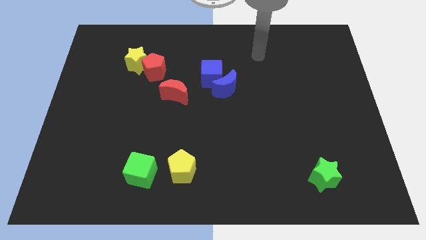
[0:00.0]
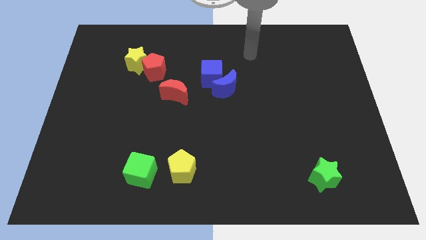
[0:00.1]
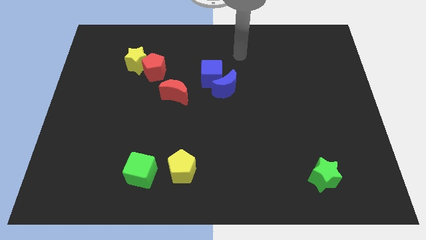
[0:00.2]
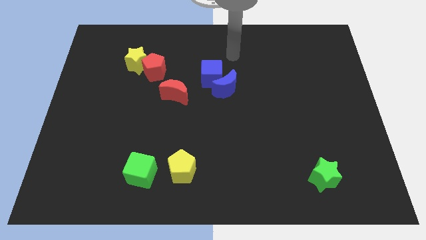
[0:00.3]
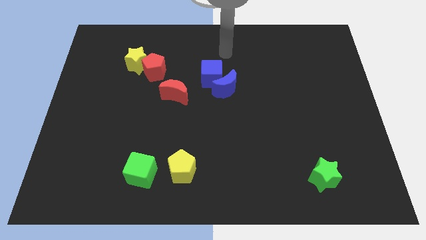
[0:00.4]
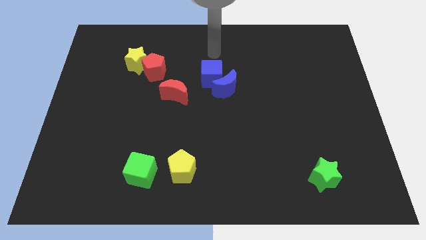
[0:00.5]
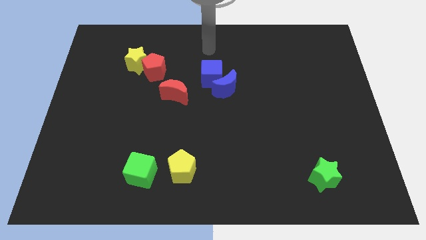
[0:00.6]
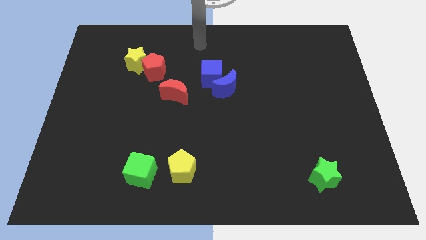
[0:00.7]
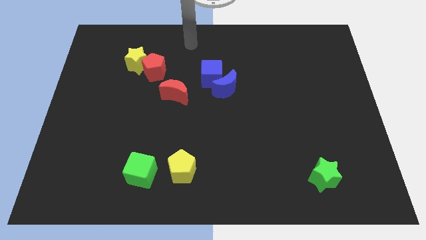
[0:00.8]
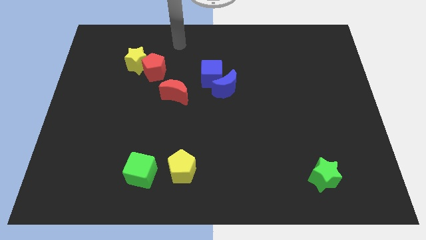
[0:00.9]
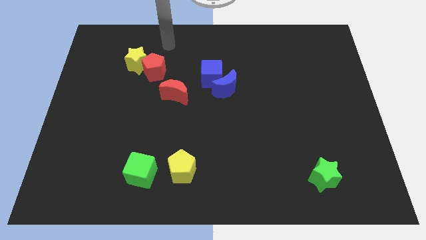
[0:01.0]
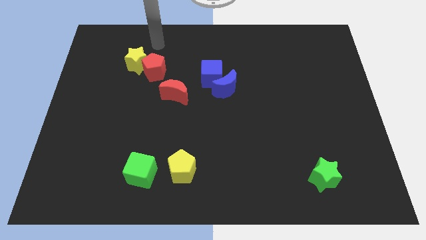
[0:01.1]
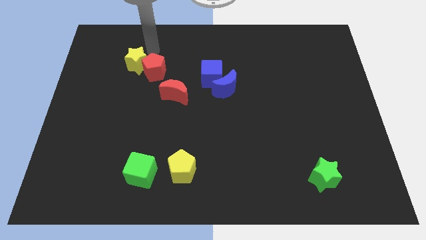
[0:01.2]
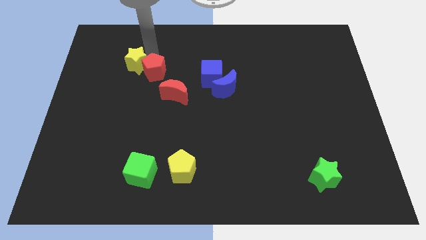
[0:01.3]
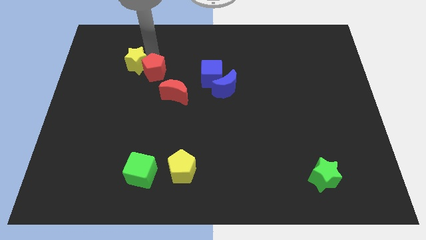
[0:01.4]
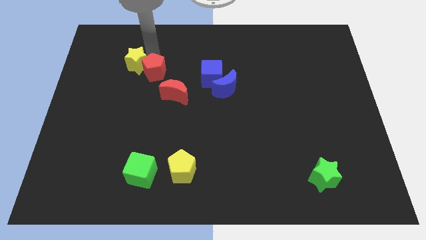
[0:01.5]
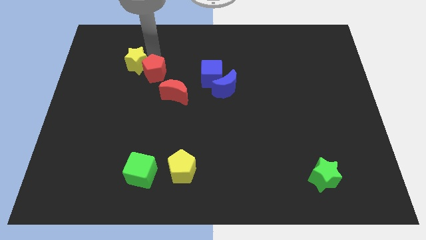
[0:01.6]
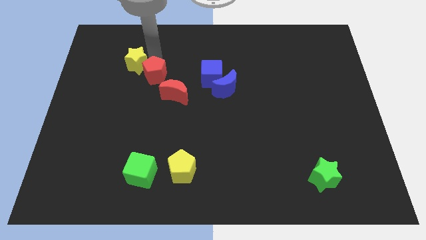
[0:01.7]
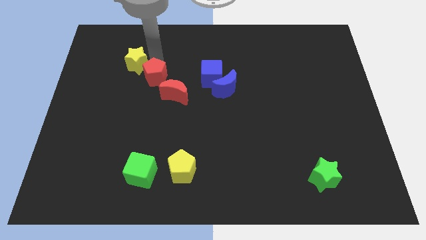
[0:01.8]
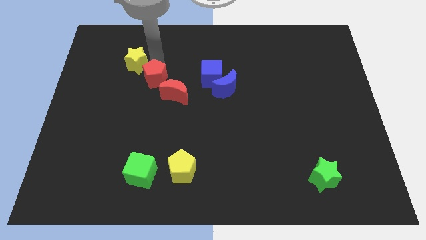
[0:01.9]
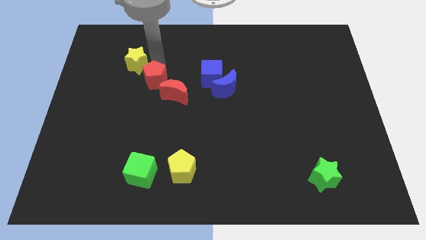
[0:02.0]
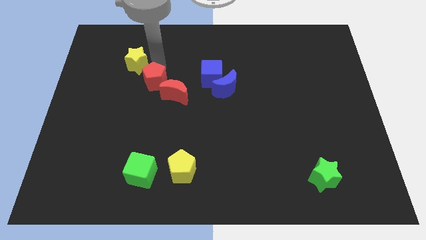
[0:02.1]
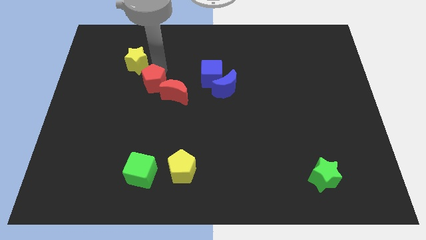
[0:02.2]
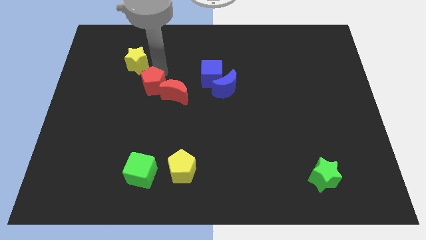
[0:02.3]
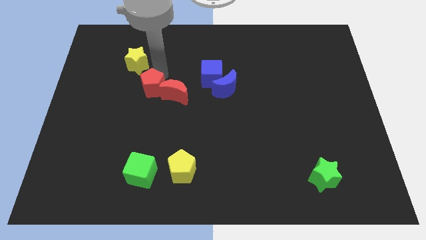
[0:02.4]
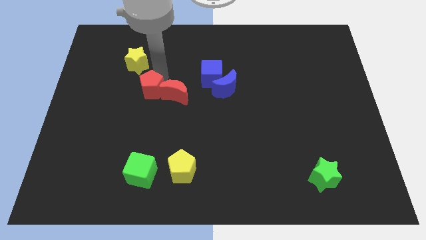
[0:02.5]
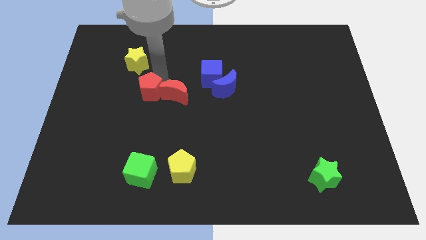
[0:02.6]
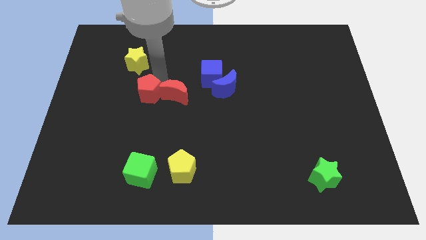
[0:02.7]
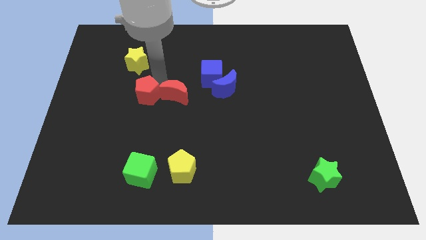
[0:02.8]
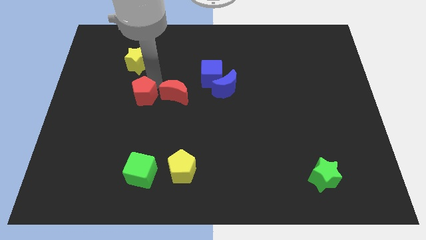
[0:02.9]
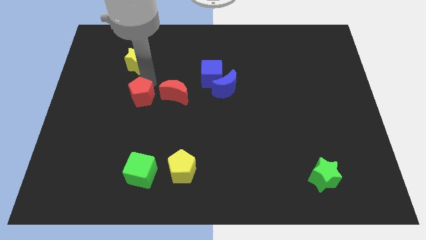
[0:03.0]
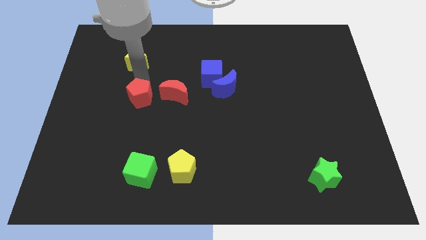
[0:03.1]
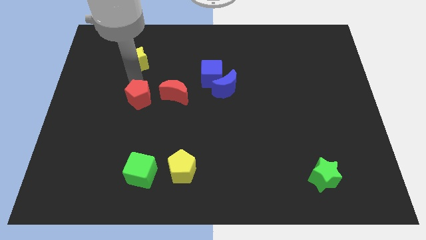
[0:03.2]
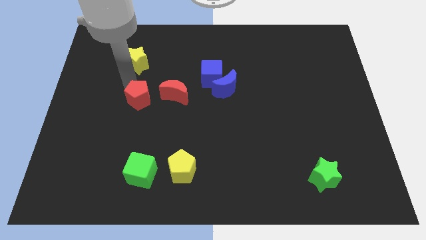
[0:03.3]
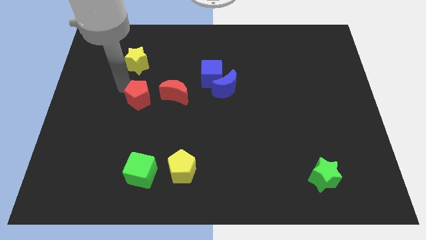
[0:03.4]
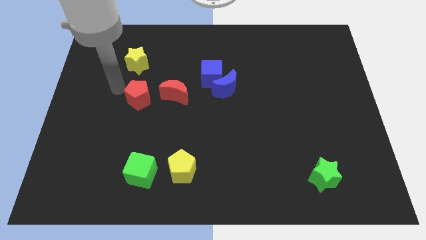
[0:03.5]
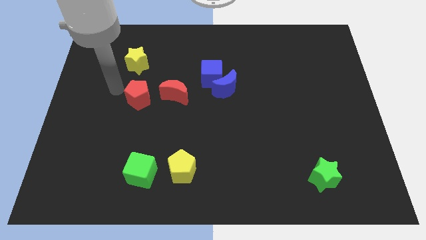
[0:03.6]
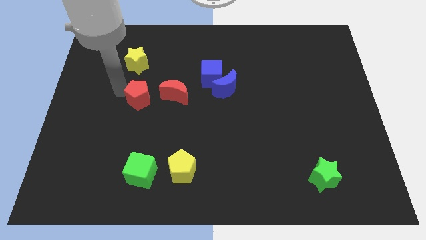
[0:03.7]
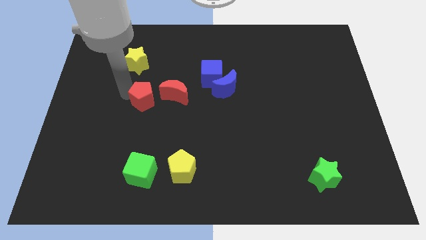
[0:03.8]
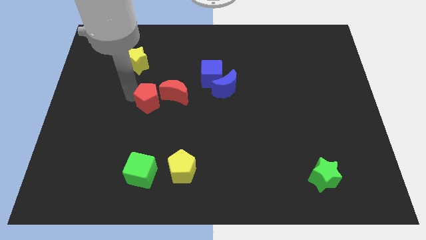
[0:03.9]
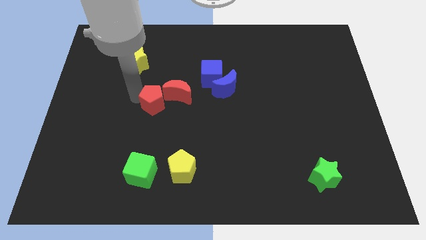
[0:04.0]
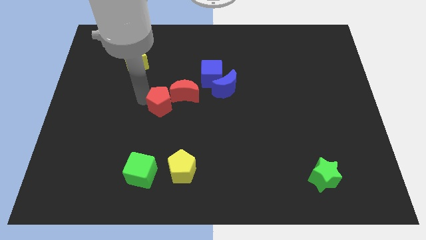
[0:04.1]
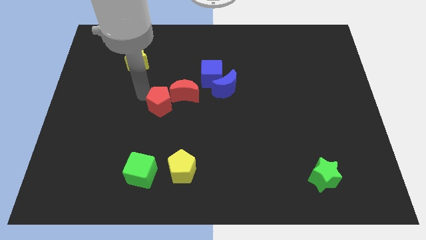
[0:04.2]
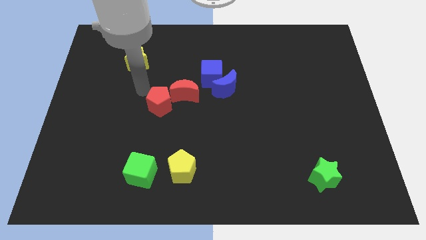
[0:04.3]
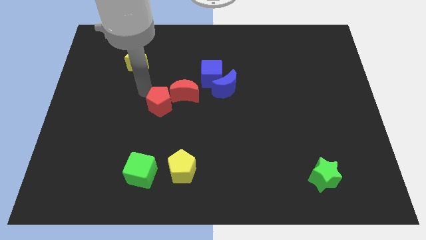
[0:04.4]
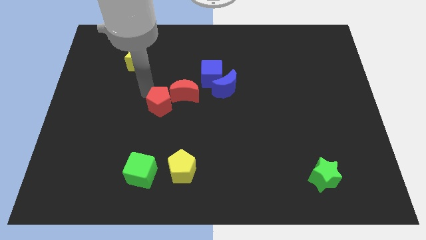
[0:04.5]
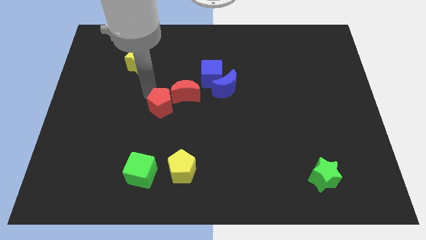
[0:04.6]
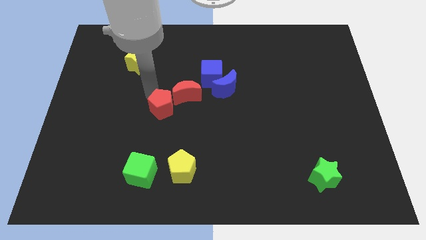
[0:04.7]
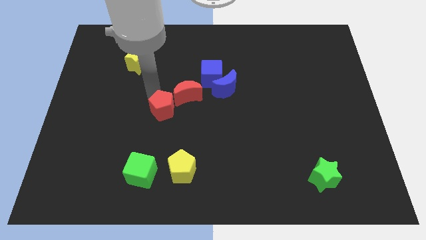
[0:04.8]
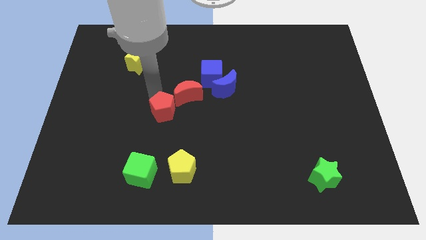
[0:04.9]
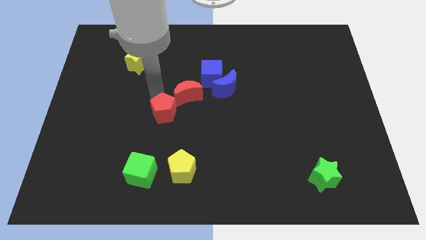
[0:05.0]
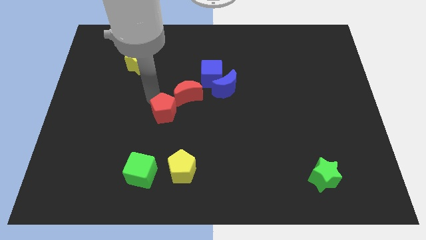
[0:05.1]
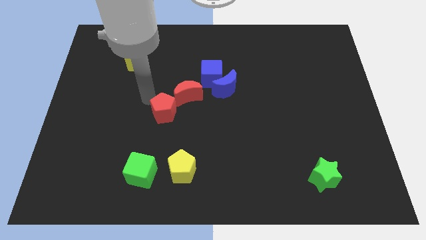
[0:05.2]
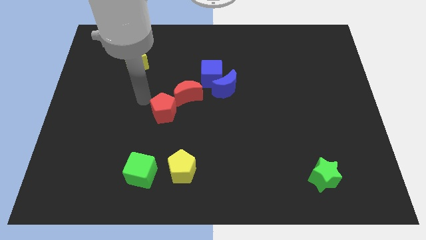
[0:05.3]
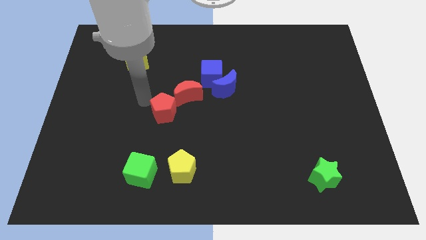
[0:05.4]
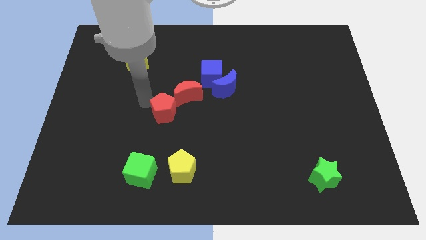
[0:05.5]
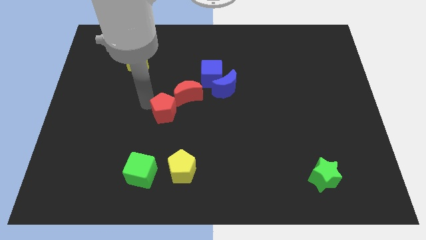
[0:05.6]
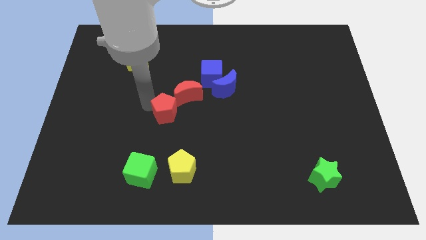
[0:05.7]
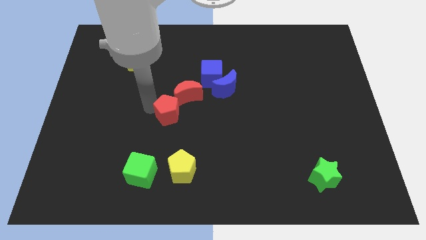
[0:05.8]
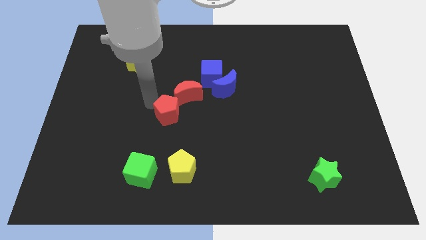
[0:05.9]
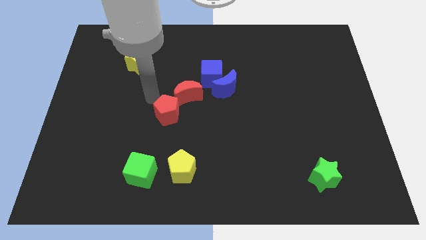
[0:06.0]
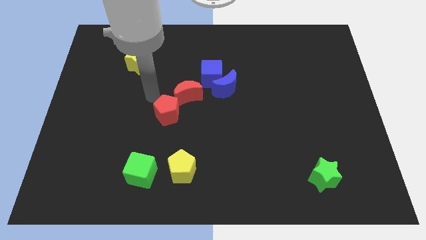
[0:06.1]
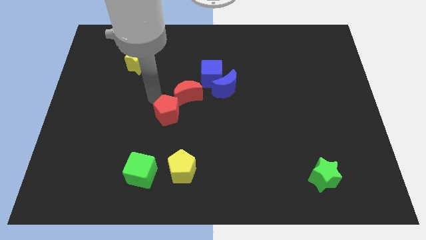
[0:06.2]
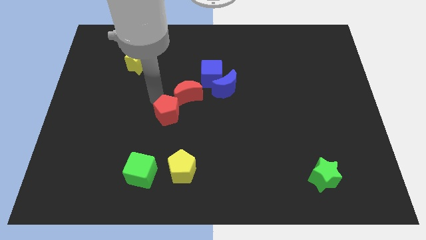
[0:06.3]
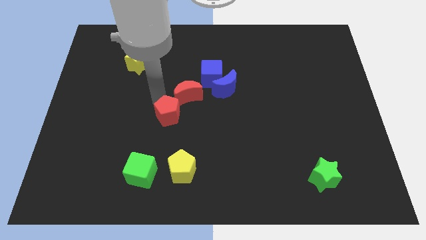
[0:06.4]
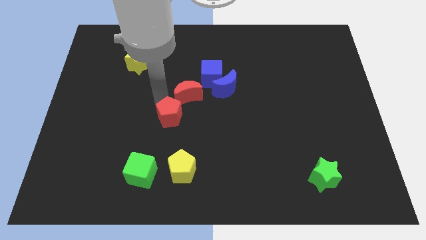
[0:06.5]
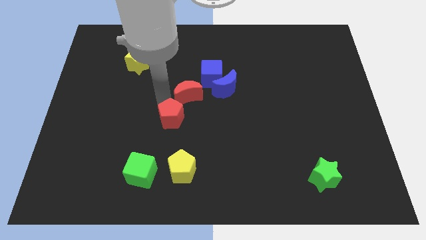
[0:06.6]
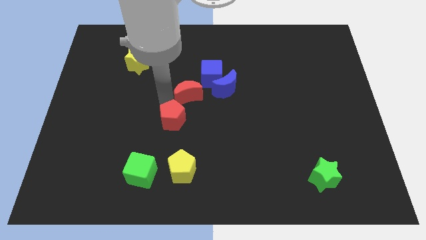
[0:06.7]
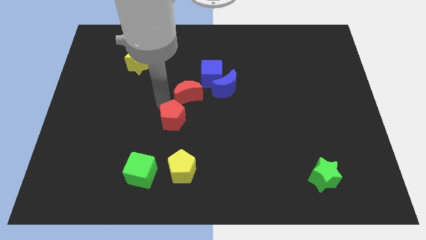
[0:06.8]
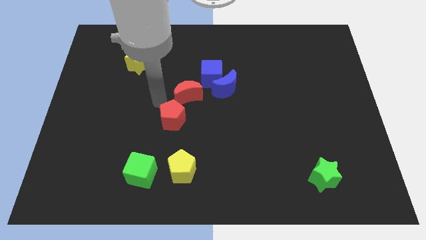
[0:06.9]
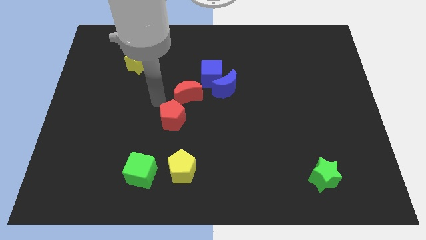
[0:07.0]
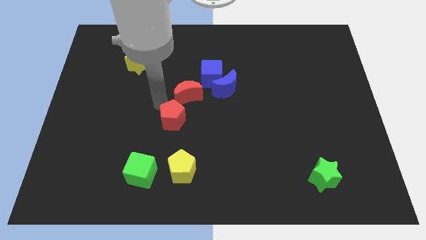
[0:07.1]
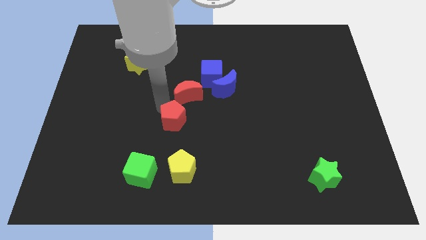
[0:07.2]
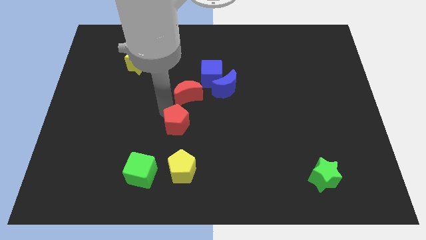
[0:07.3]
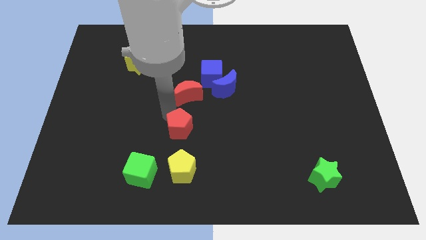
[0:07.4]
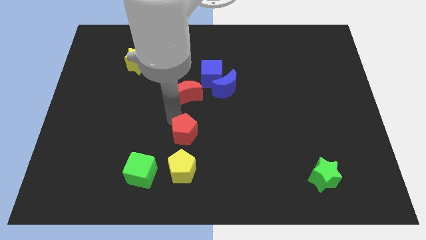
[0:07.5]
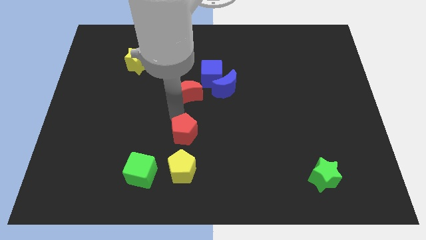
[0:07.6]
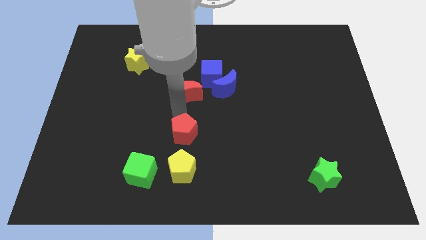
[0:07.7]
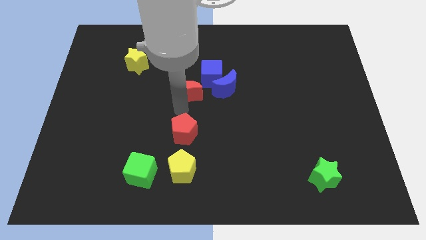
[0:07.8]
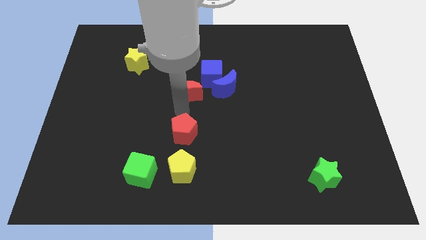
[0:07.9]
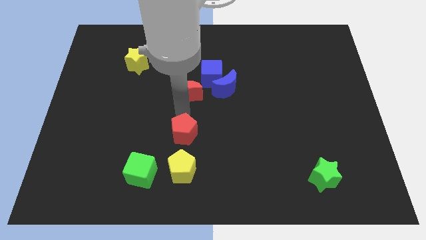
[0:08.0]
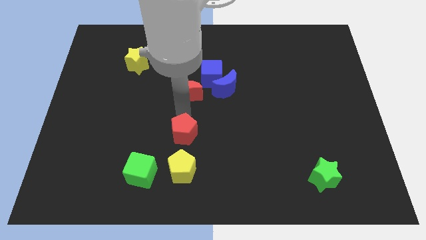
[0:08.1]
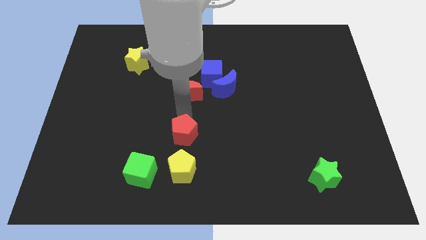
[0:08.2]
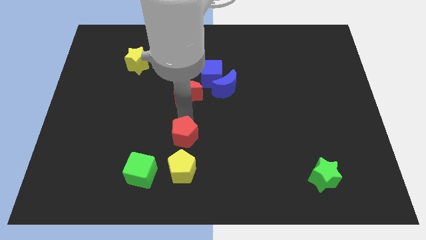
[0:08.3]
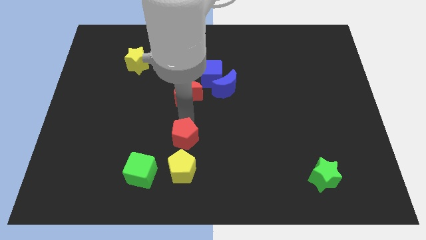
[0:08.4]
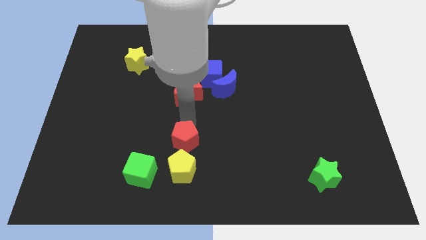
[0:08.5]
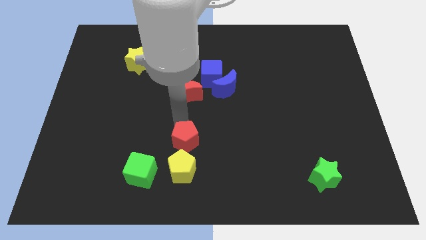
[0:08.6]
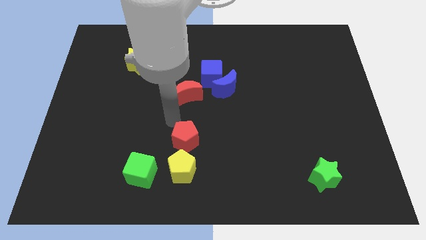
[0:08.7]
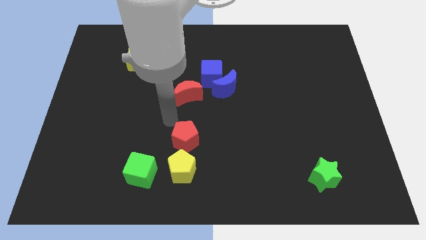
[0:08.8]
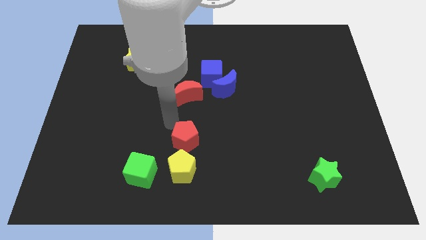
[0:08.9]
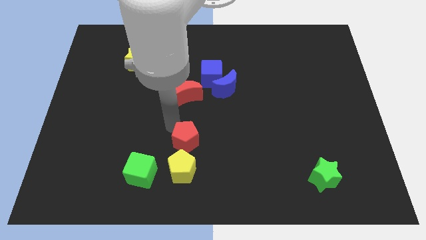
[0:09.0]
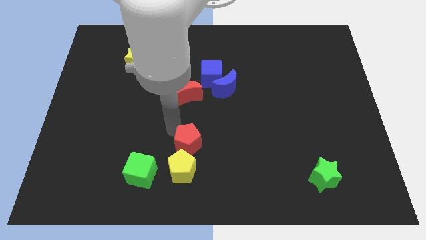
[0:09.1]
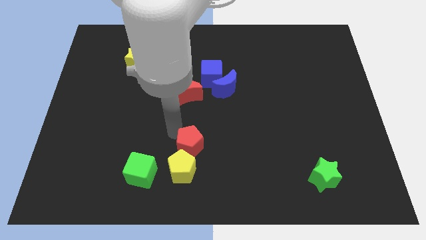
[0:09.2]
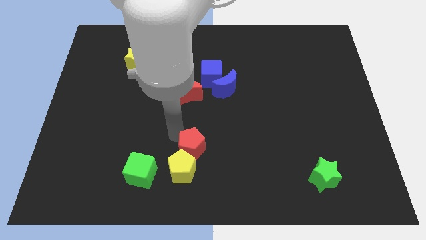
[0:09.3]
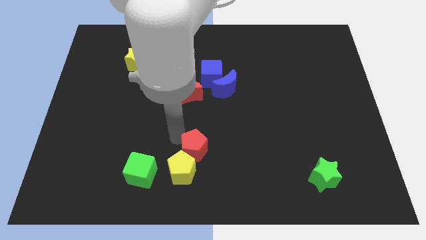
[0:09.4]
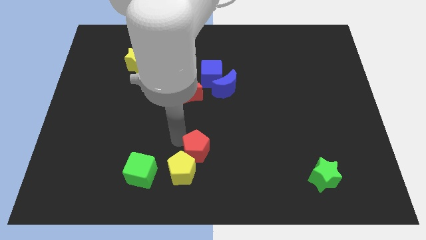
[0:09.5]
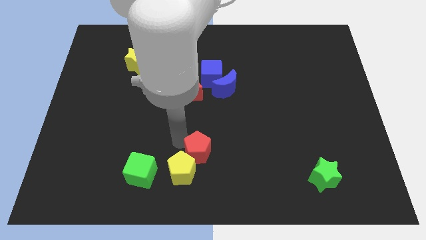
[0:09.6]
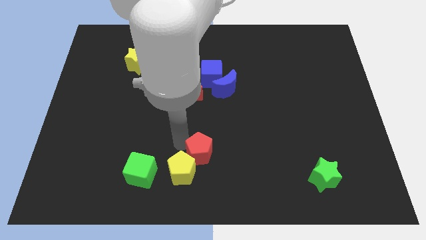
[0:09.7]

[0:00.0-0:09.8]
put the red pentagon to the right side of the green cube
